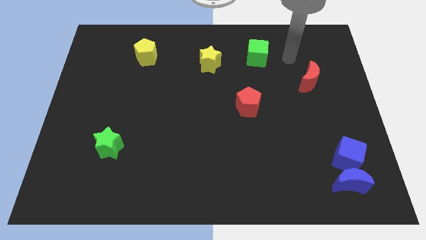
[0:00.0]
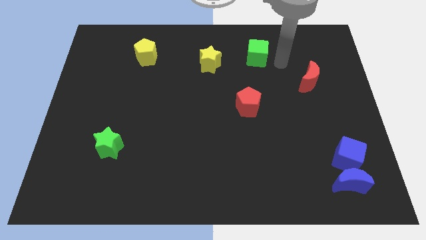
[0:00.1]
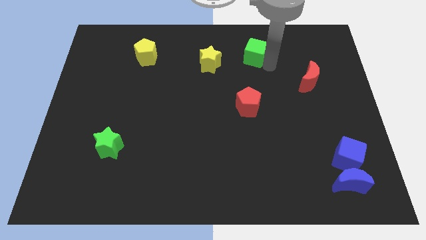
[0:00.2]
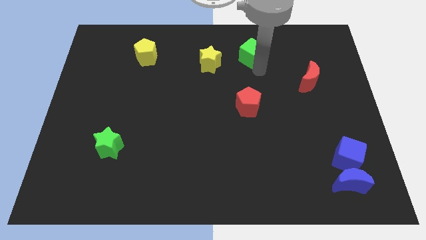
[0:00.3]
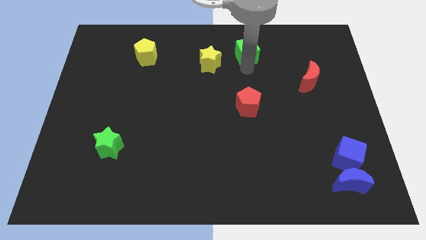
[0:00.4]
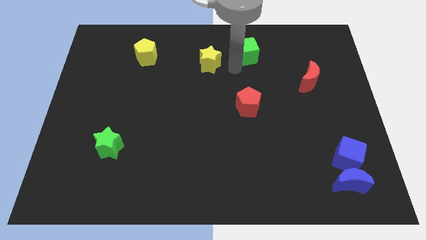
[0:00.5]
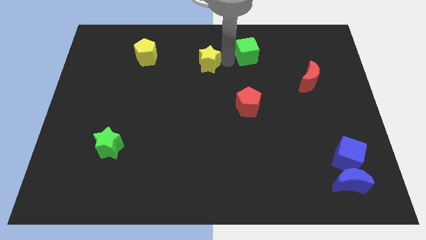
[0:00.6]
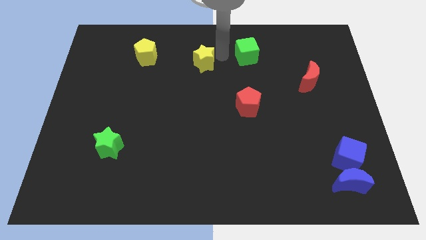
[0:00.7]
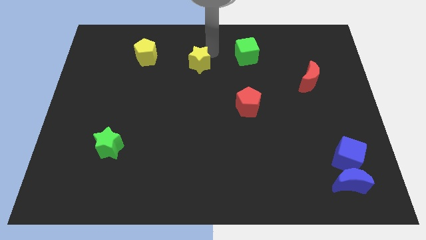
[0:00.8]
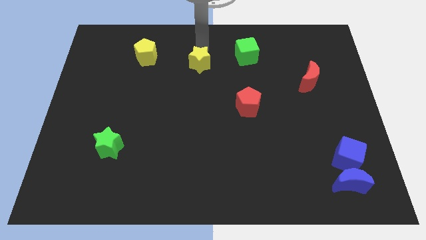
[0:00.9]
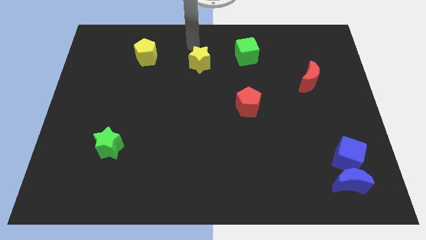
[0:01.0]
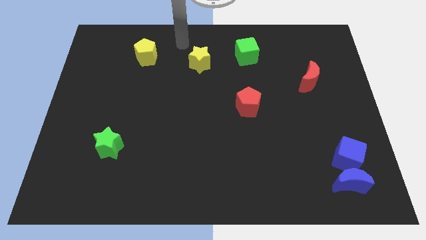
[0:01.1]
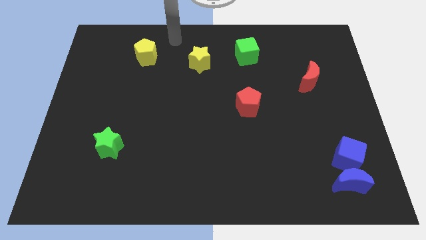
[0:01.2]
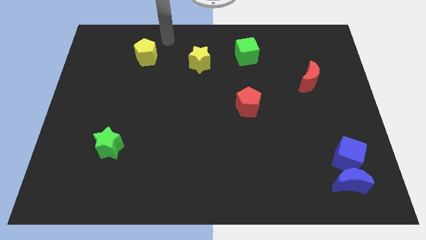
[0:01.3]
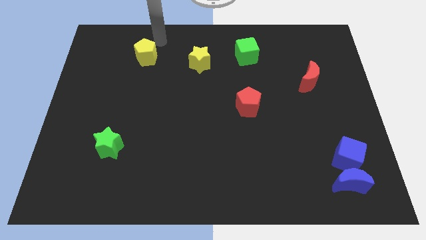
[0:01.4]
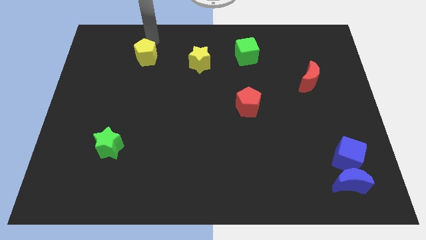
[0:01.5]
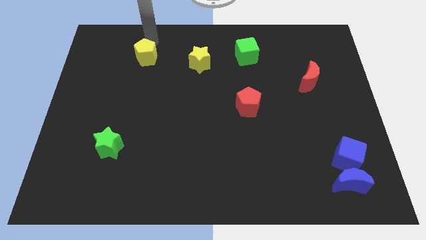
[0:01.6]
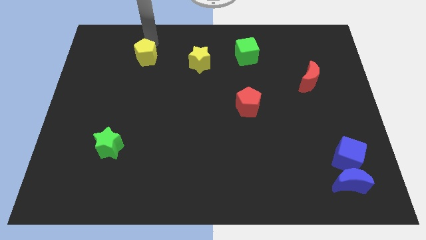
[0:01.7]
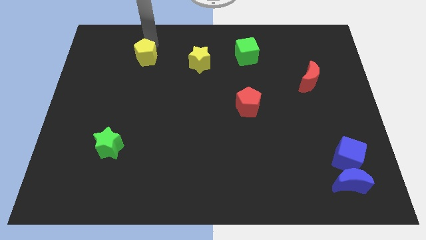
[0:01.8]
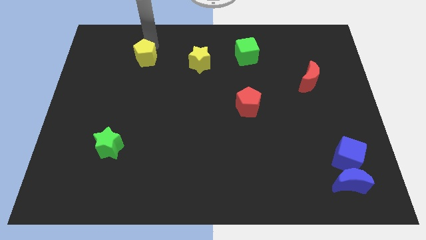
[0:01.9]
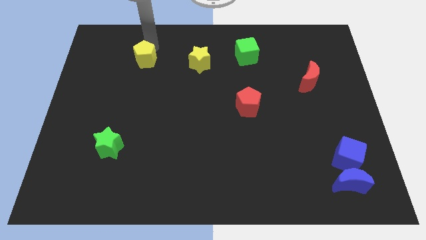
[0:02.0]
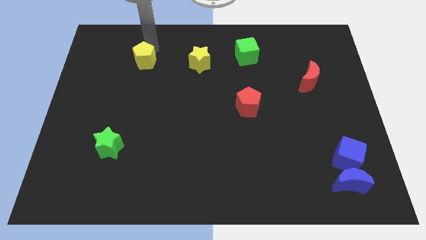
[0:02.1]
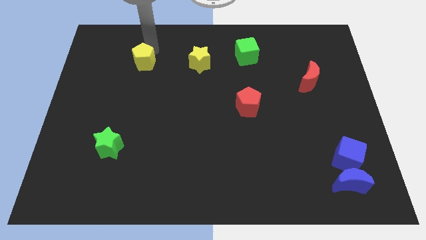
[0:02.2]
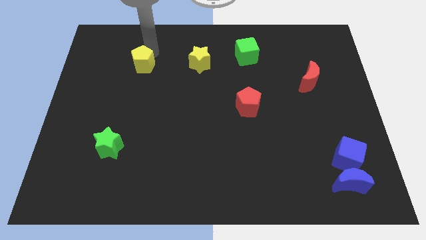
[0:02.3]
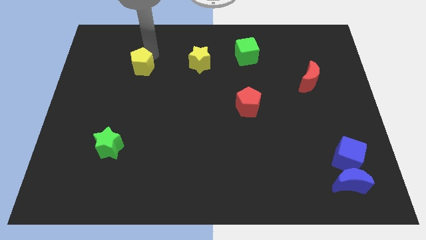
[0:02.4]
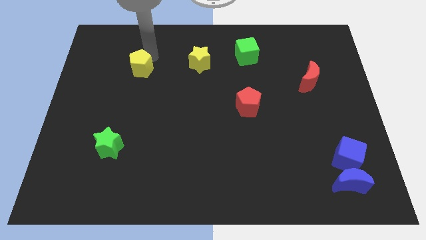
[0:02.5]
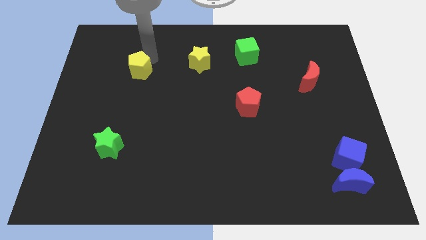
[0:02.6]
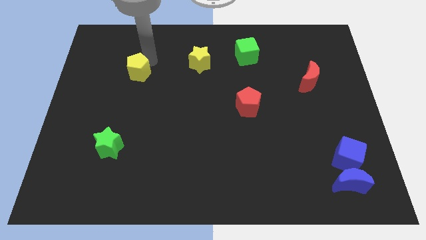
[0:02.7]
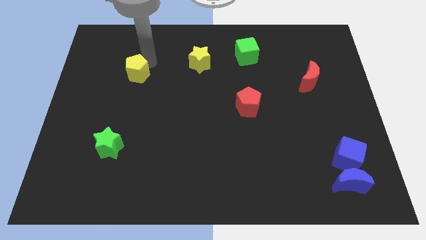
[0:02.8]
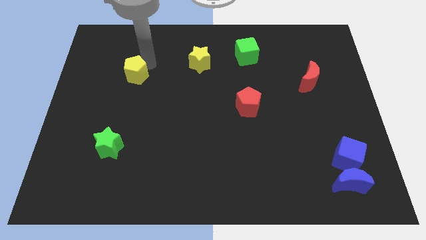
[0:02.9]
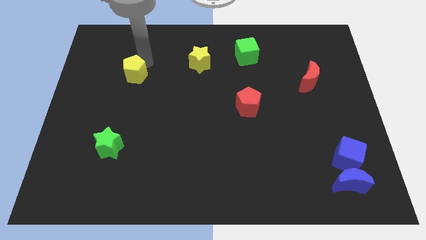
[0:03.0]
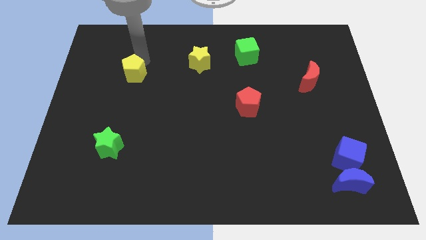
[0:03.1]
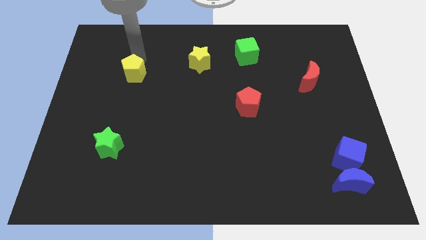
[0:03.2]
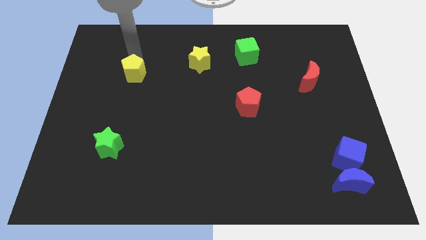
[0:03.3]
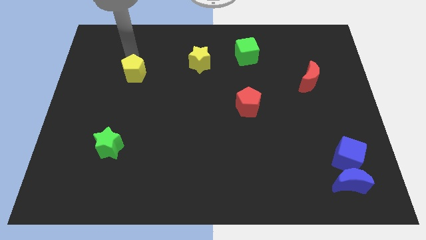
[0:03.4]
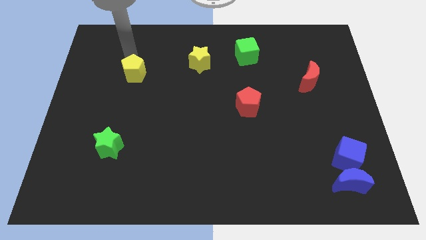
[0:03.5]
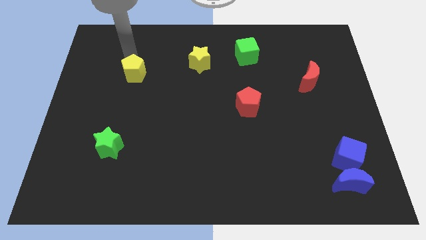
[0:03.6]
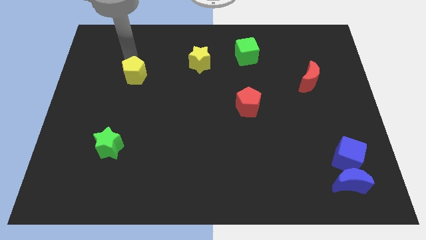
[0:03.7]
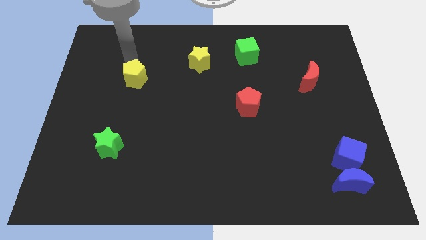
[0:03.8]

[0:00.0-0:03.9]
move the yellow pentagon slightly downwards

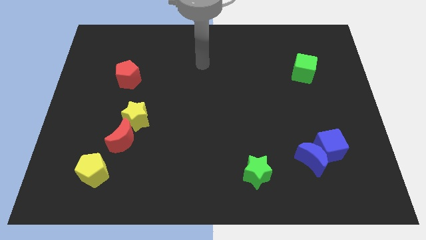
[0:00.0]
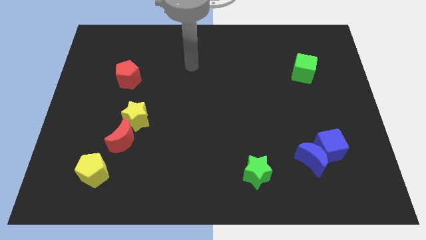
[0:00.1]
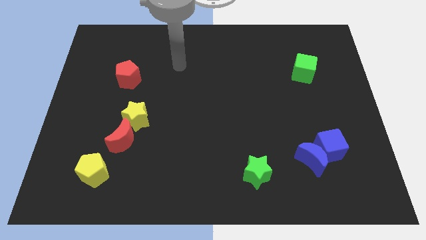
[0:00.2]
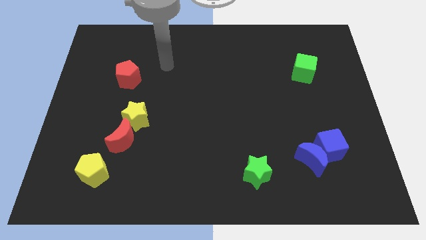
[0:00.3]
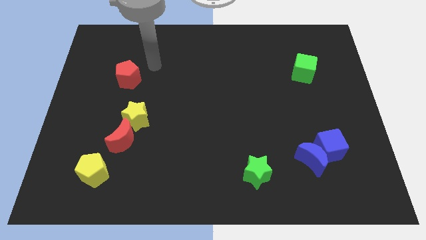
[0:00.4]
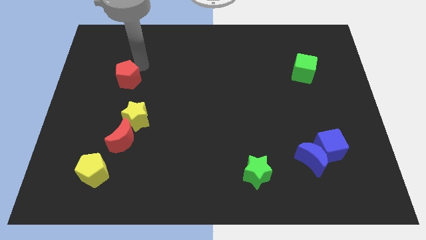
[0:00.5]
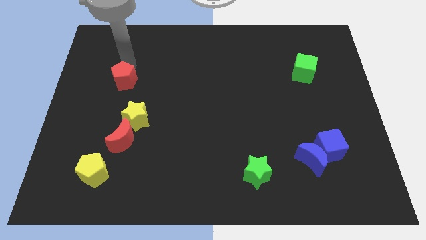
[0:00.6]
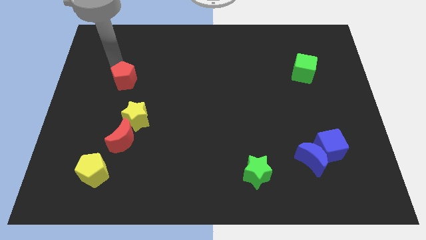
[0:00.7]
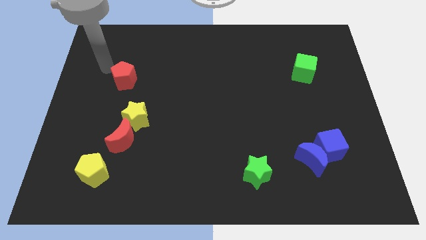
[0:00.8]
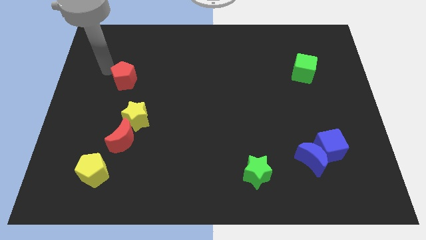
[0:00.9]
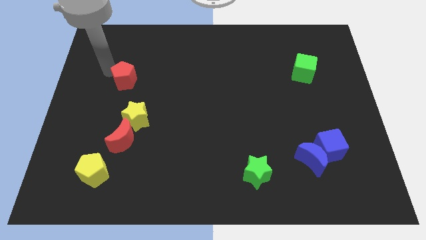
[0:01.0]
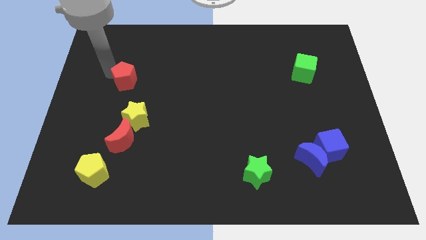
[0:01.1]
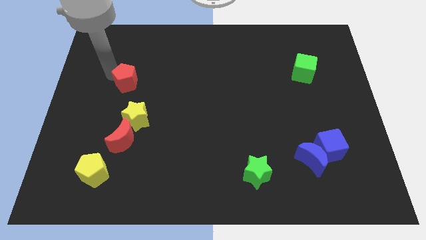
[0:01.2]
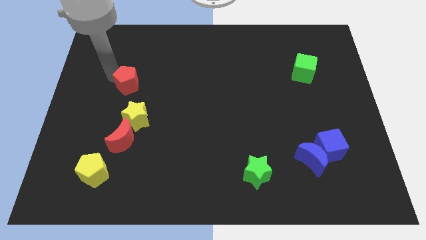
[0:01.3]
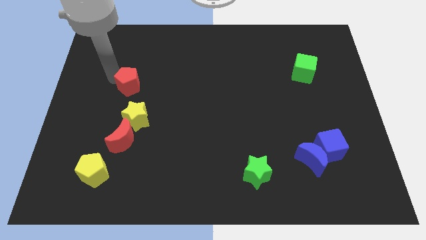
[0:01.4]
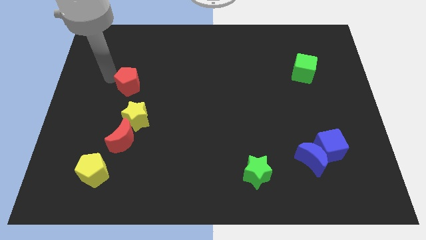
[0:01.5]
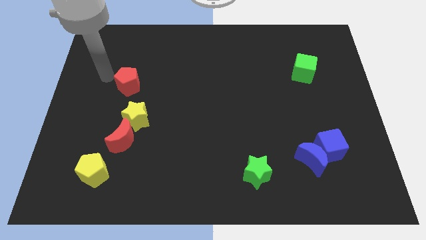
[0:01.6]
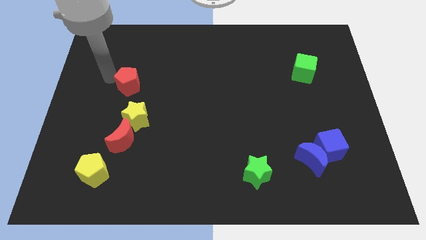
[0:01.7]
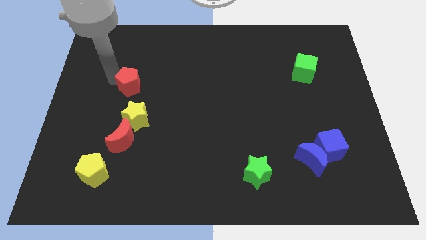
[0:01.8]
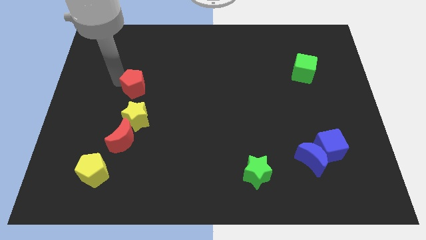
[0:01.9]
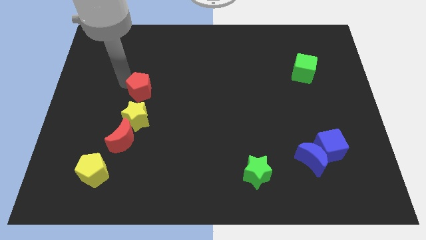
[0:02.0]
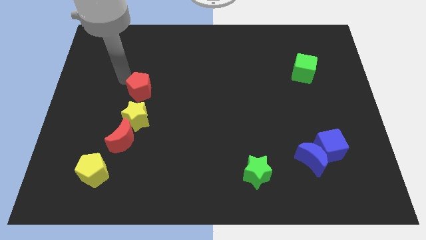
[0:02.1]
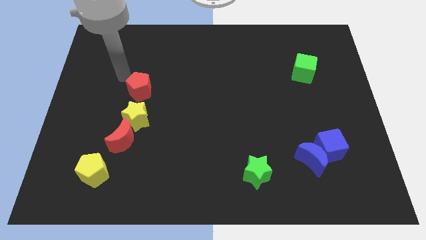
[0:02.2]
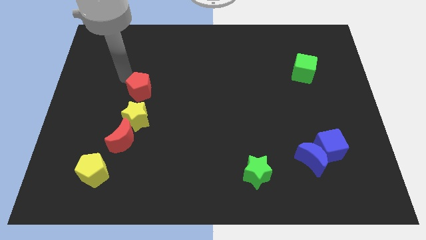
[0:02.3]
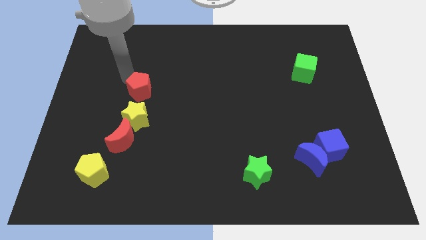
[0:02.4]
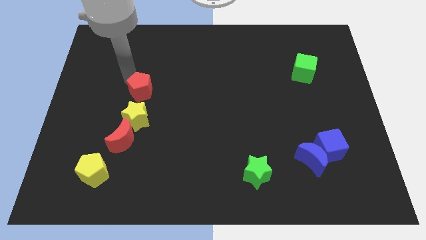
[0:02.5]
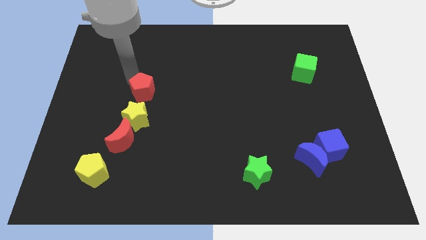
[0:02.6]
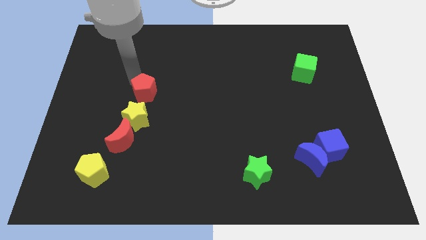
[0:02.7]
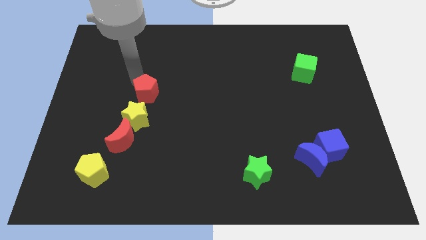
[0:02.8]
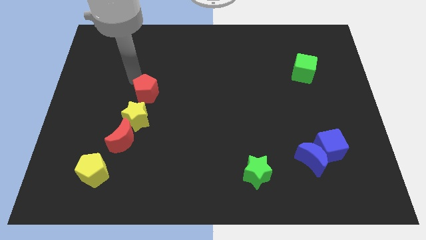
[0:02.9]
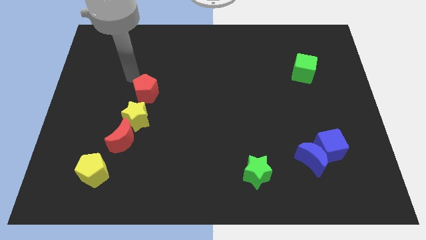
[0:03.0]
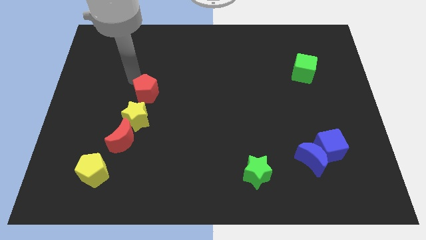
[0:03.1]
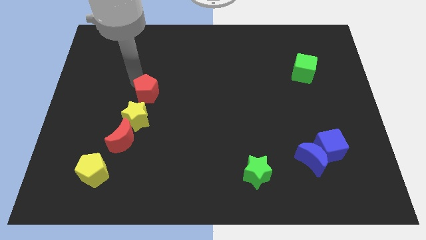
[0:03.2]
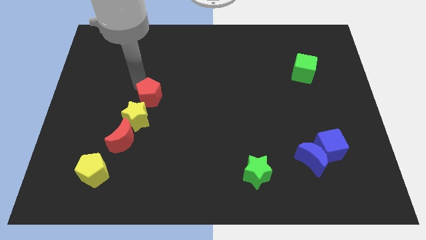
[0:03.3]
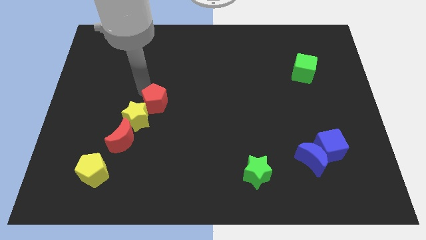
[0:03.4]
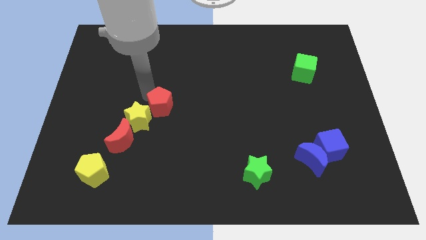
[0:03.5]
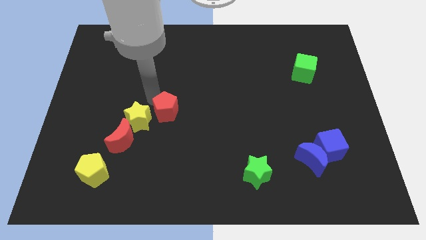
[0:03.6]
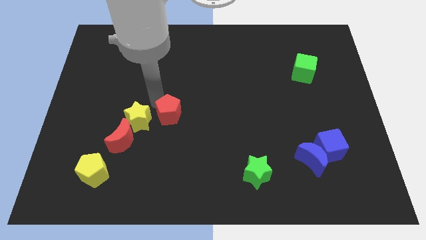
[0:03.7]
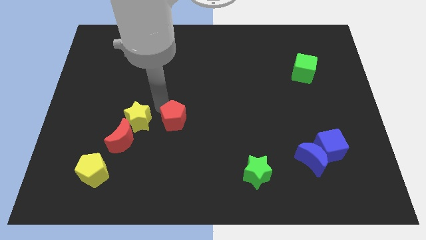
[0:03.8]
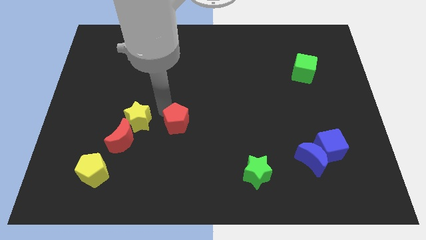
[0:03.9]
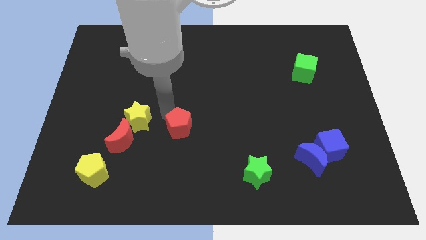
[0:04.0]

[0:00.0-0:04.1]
push the red pentagon diagonally downwards and to the right
